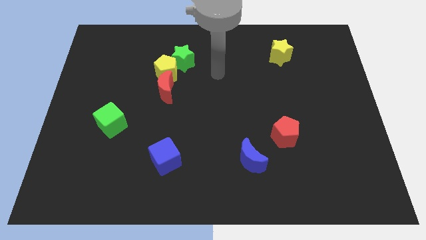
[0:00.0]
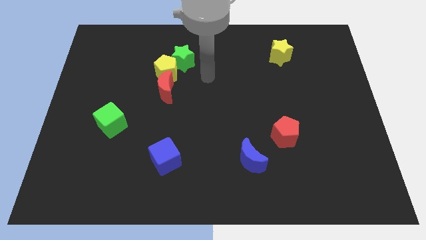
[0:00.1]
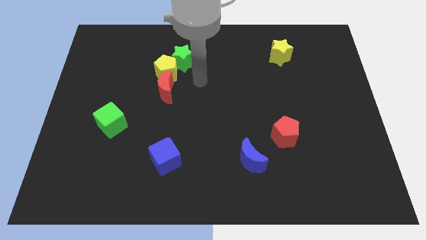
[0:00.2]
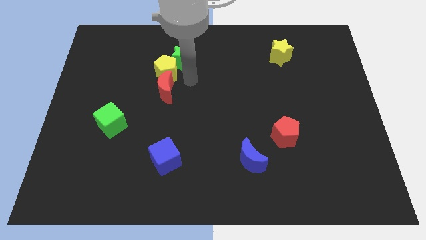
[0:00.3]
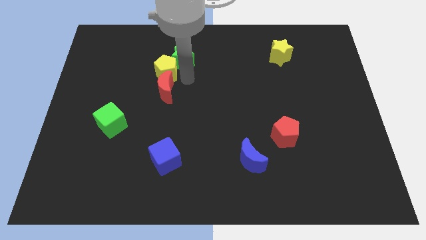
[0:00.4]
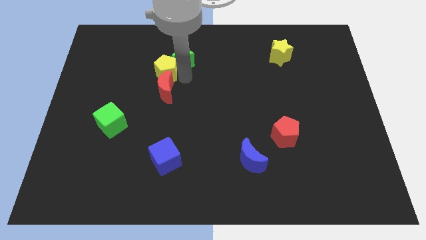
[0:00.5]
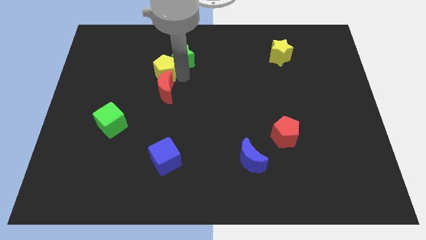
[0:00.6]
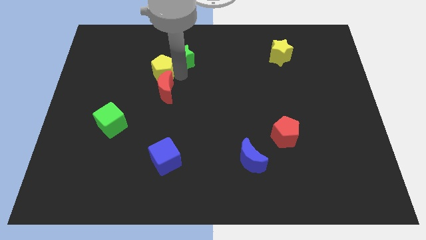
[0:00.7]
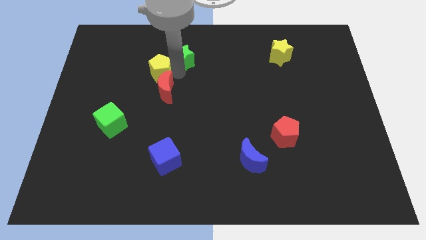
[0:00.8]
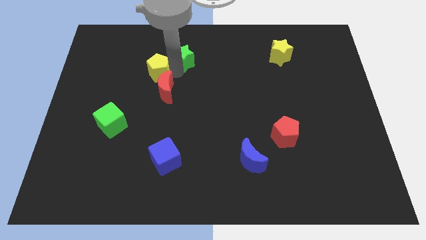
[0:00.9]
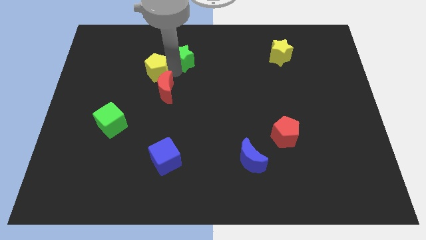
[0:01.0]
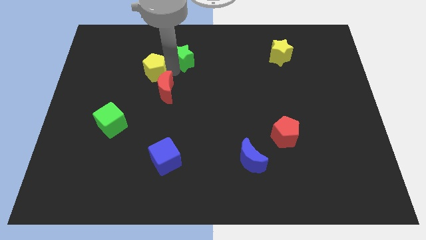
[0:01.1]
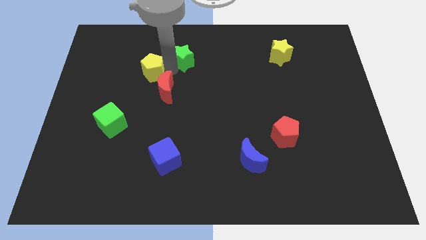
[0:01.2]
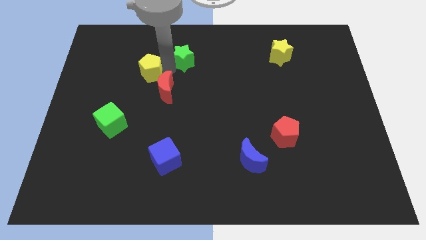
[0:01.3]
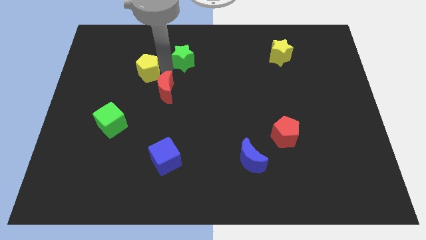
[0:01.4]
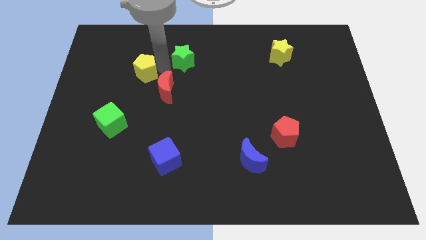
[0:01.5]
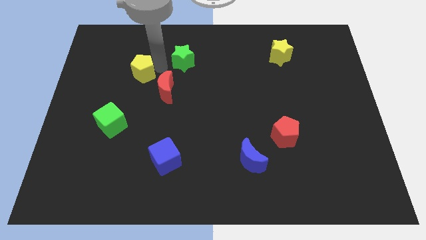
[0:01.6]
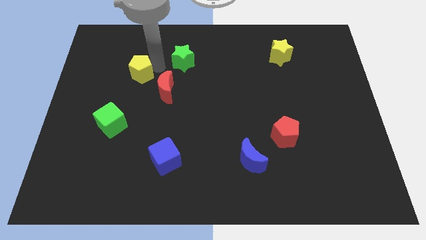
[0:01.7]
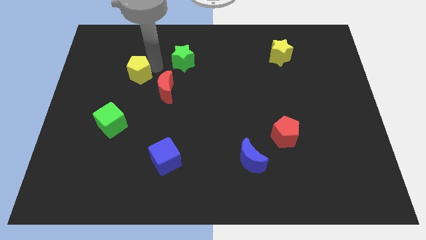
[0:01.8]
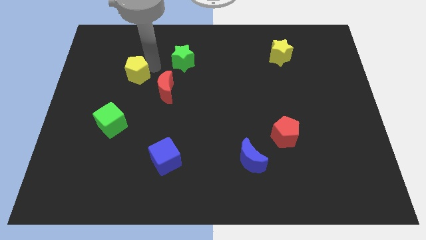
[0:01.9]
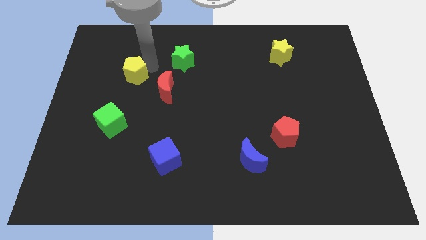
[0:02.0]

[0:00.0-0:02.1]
pull the yellow pentagon apart from the green star and red moon

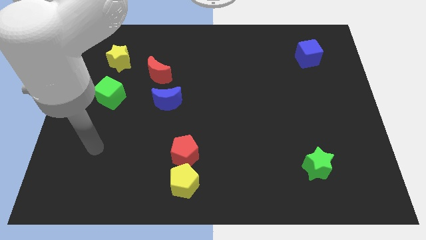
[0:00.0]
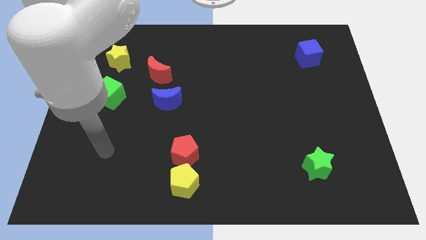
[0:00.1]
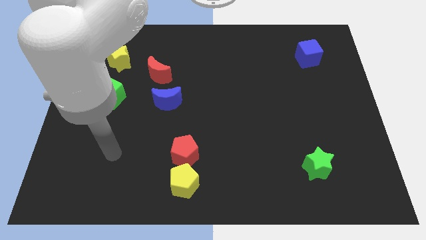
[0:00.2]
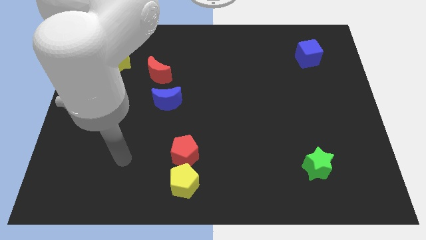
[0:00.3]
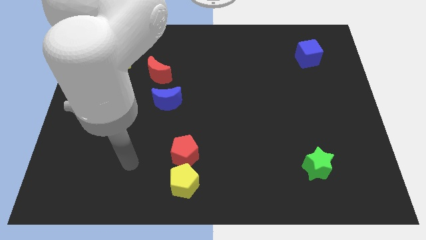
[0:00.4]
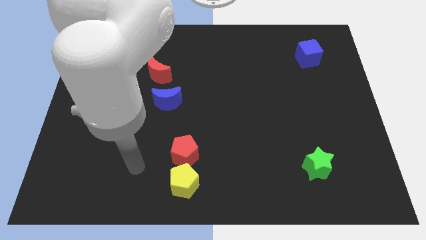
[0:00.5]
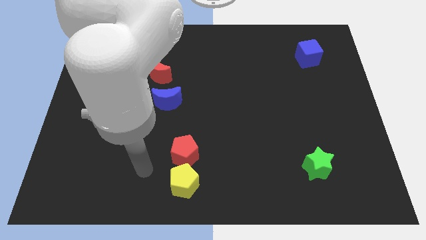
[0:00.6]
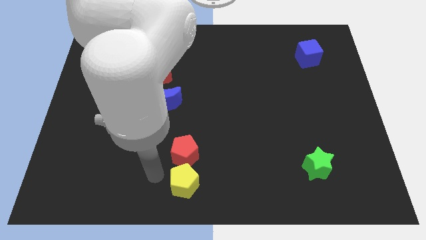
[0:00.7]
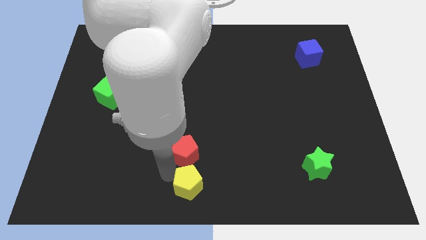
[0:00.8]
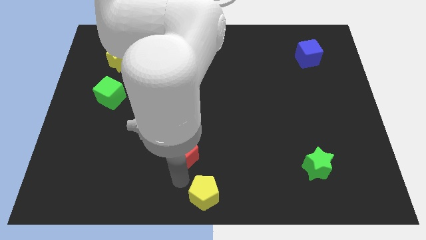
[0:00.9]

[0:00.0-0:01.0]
separate the red pentagon from the yellow pentagon

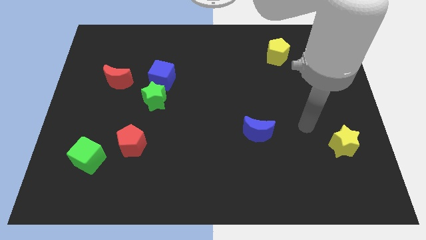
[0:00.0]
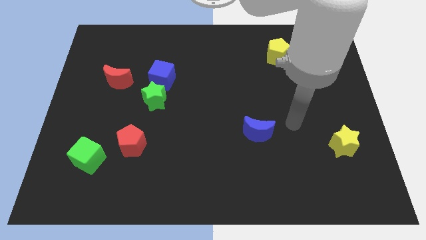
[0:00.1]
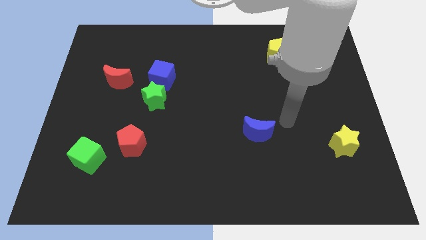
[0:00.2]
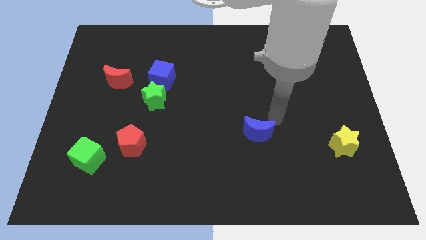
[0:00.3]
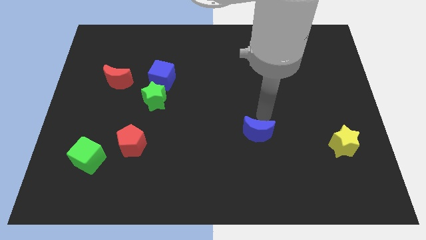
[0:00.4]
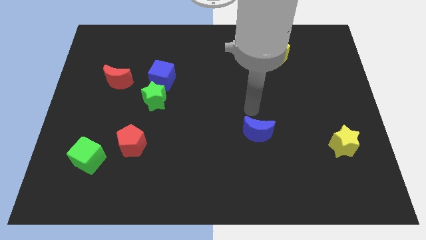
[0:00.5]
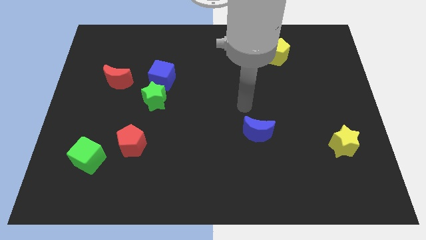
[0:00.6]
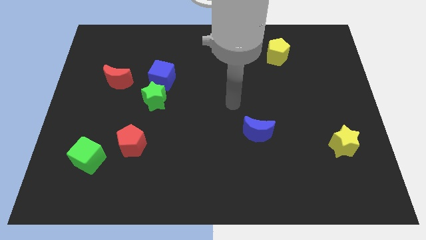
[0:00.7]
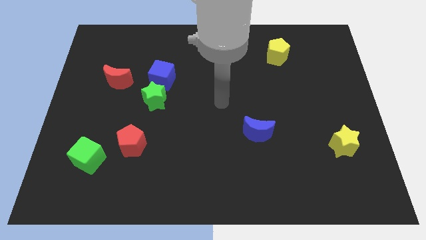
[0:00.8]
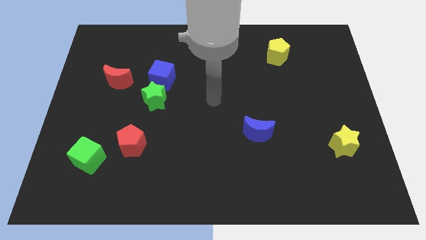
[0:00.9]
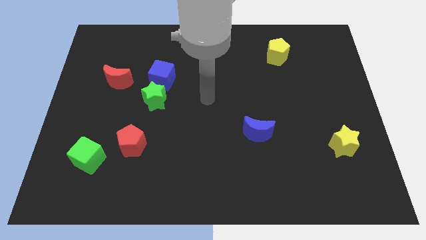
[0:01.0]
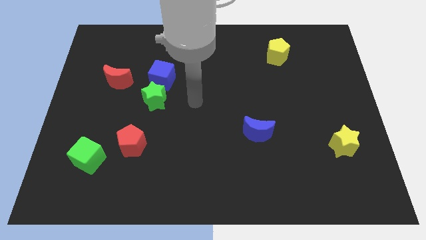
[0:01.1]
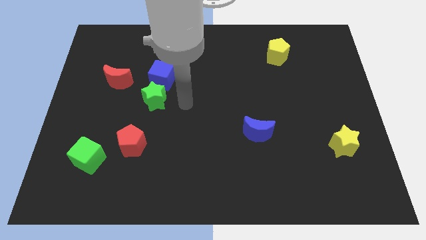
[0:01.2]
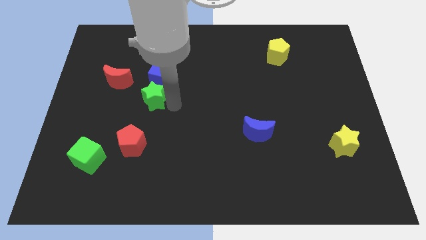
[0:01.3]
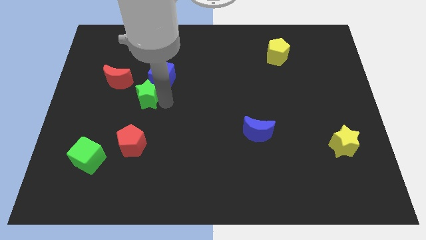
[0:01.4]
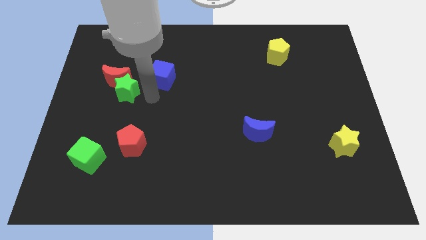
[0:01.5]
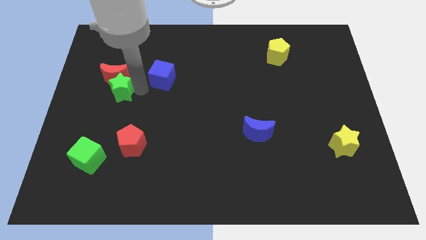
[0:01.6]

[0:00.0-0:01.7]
pull the blue cube apart from the green star

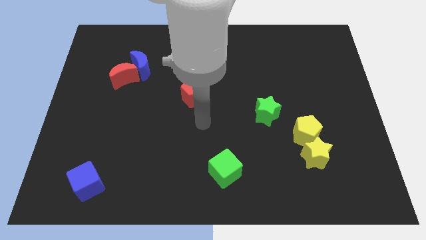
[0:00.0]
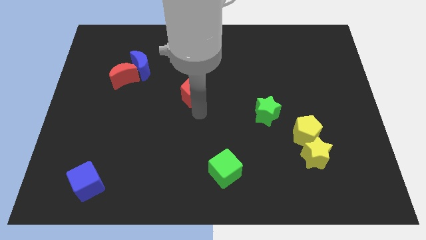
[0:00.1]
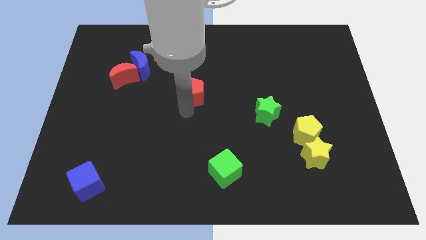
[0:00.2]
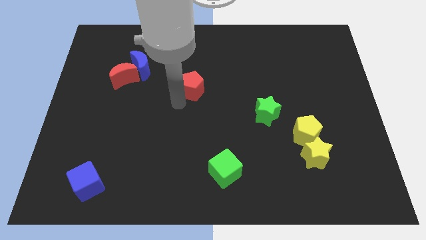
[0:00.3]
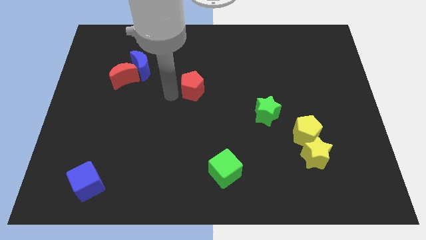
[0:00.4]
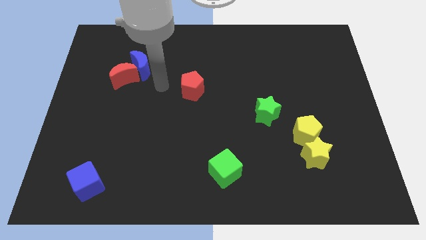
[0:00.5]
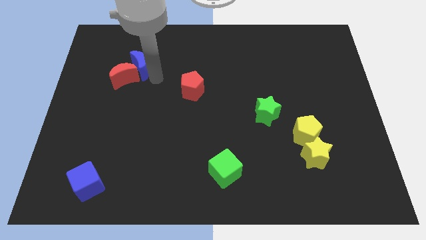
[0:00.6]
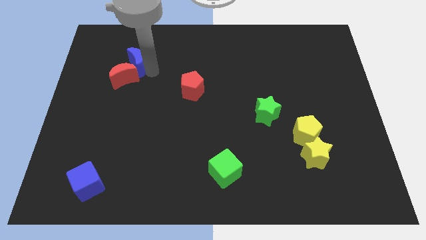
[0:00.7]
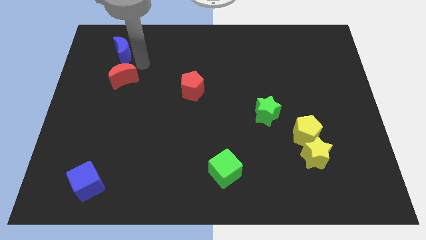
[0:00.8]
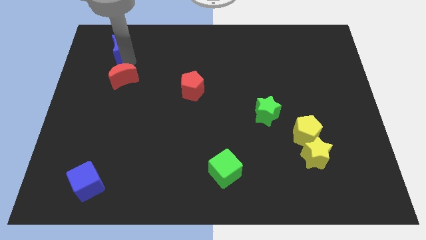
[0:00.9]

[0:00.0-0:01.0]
move the red moon away from the blue moon

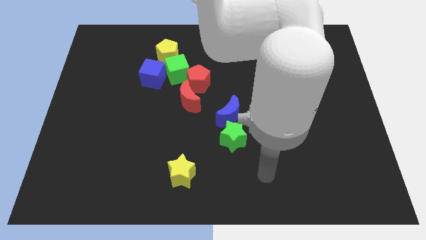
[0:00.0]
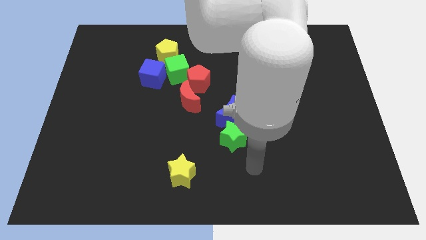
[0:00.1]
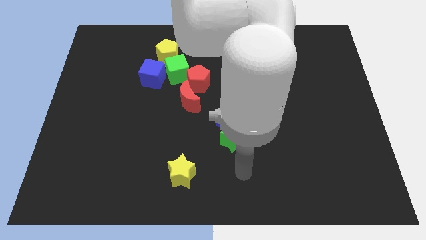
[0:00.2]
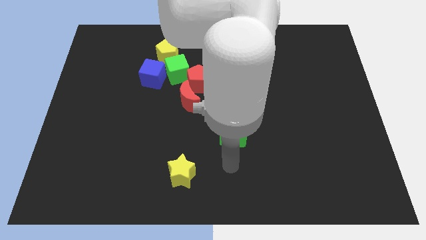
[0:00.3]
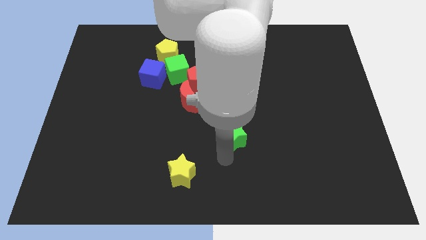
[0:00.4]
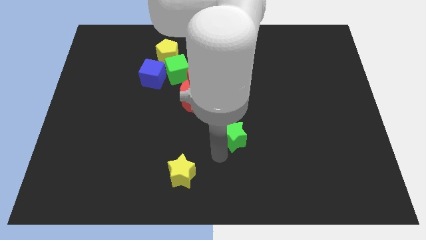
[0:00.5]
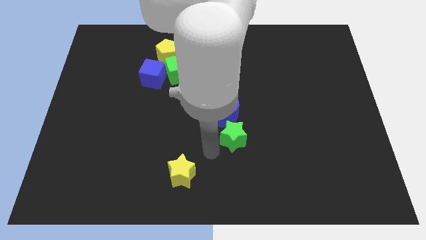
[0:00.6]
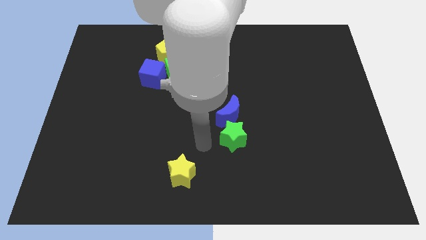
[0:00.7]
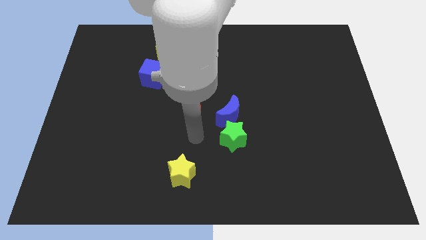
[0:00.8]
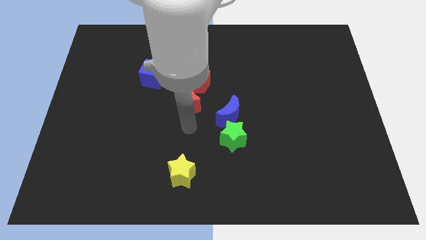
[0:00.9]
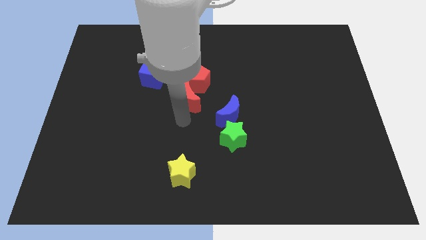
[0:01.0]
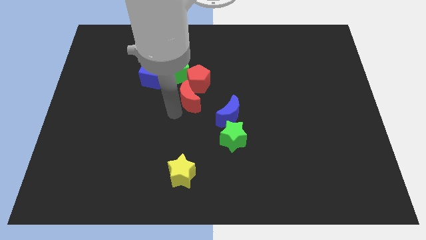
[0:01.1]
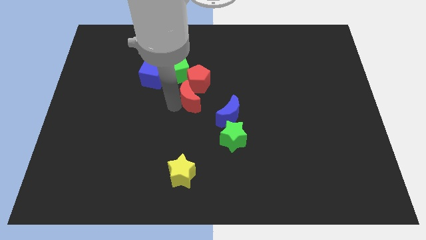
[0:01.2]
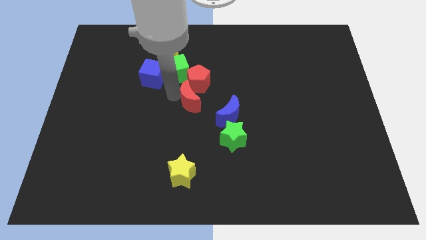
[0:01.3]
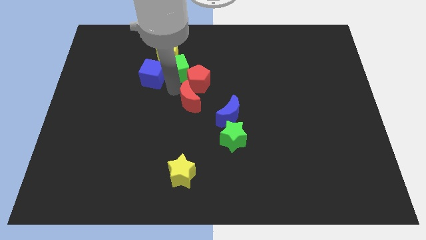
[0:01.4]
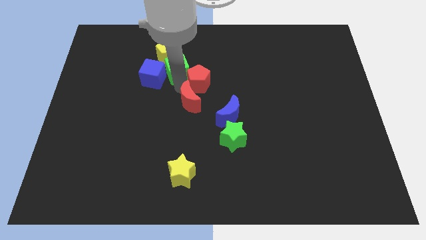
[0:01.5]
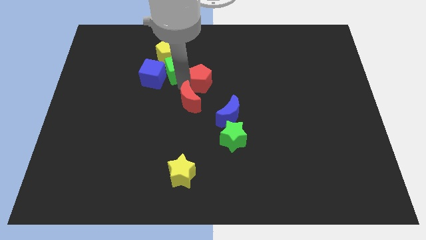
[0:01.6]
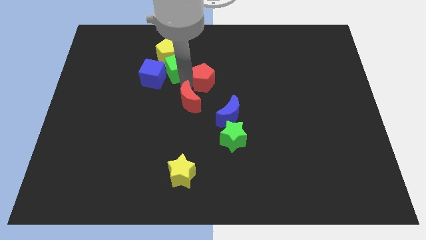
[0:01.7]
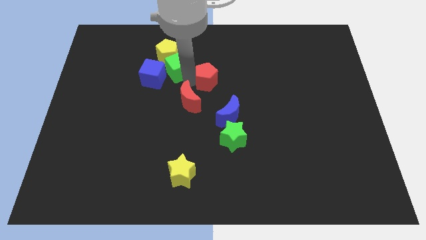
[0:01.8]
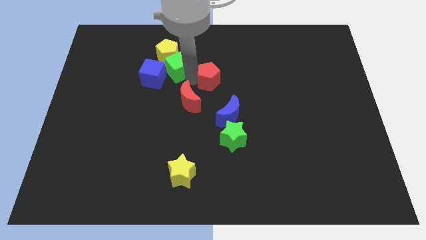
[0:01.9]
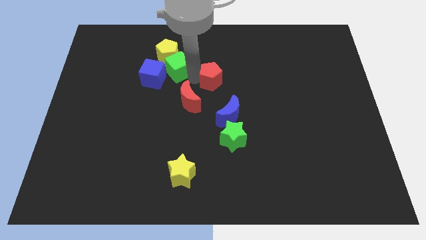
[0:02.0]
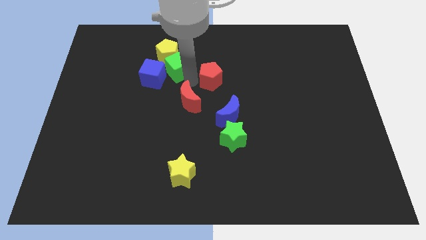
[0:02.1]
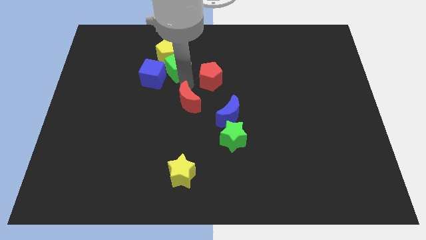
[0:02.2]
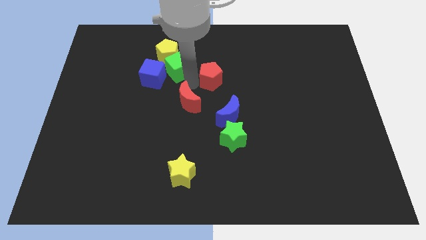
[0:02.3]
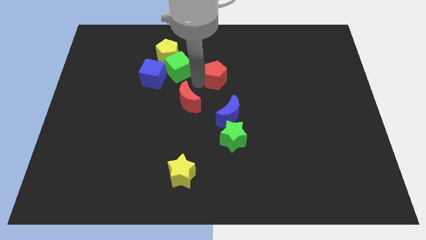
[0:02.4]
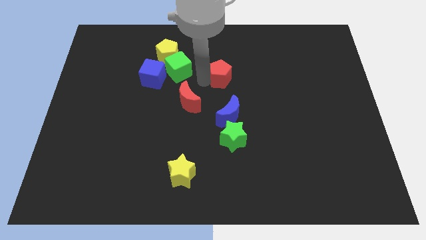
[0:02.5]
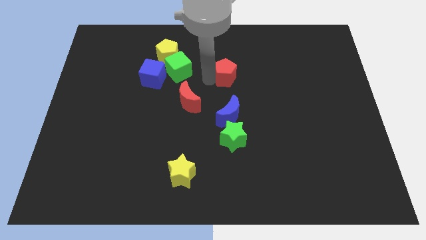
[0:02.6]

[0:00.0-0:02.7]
move the red pentagon away from the green cube and red moon

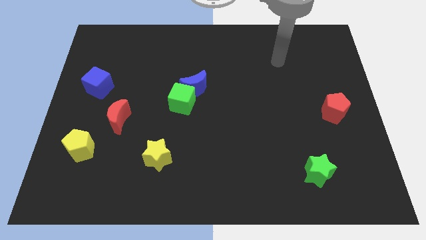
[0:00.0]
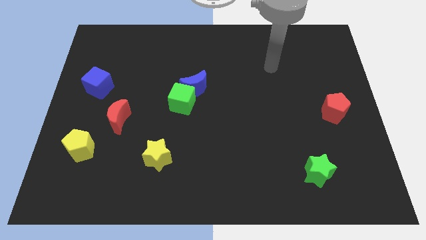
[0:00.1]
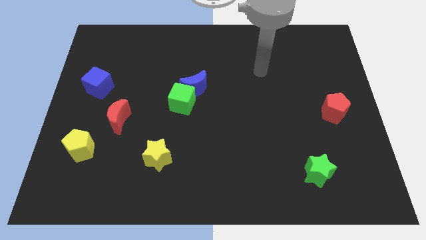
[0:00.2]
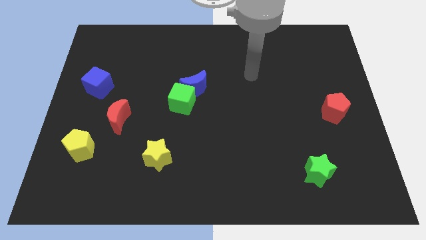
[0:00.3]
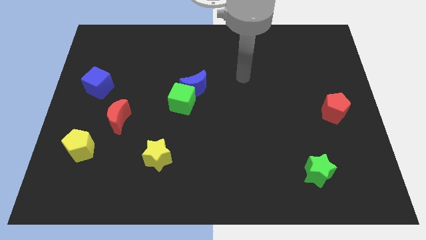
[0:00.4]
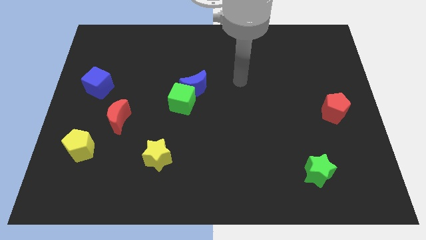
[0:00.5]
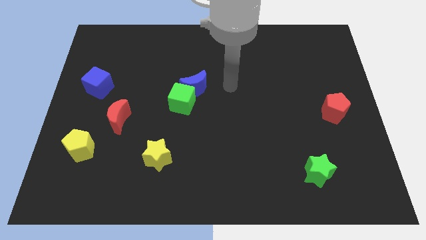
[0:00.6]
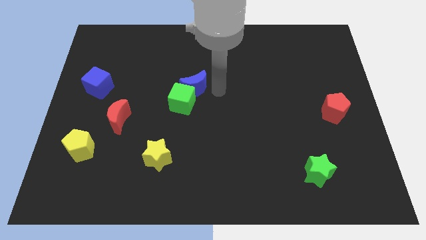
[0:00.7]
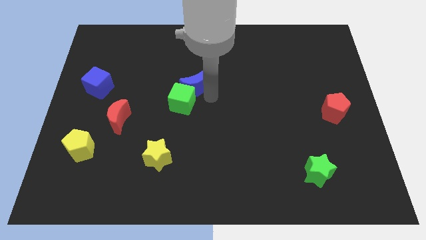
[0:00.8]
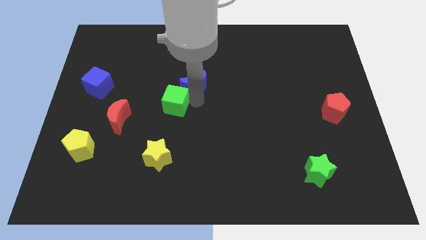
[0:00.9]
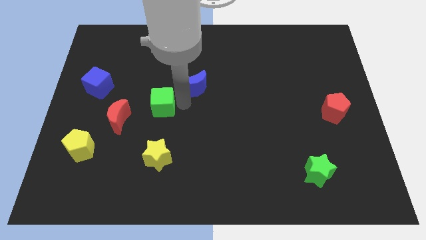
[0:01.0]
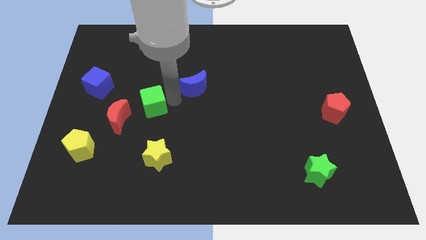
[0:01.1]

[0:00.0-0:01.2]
separate the blue moon from the green cube
